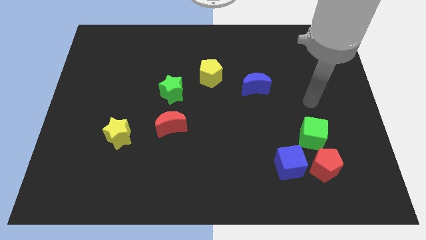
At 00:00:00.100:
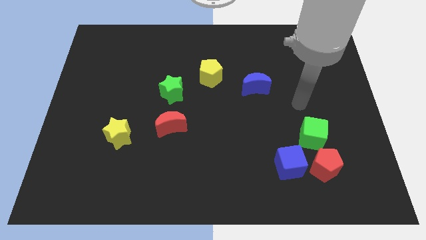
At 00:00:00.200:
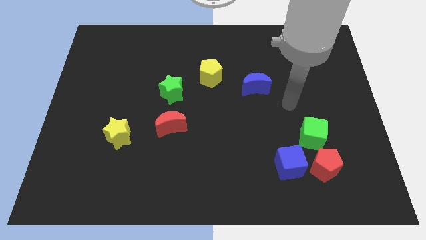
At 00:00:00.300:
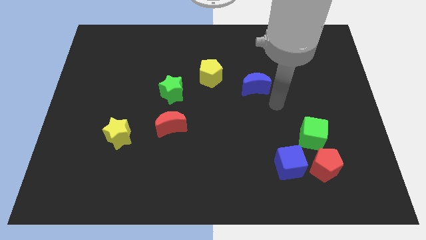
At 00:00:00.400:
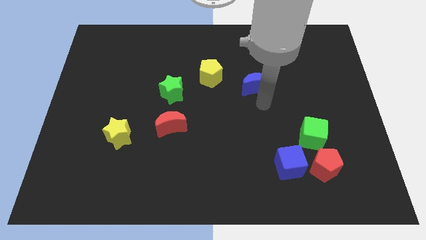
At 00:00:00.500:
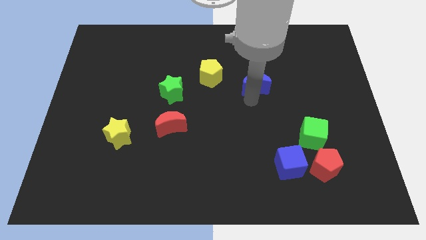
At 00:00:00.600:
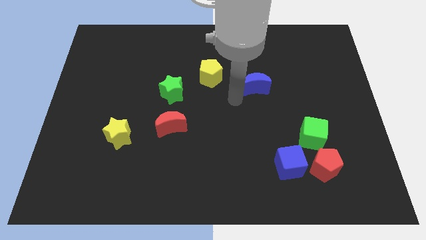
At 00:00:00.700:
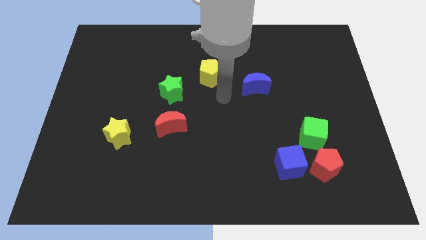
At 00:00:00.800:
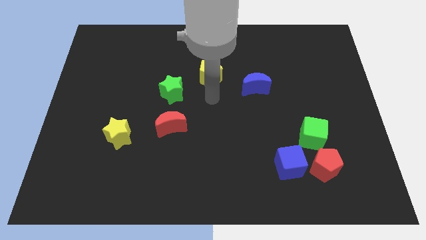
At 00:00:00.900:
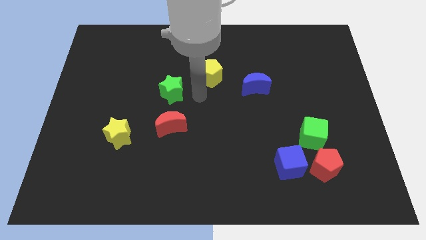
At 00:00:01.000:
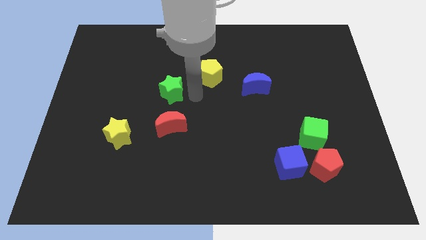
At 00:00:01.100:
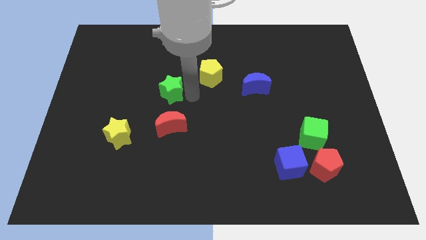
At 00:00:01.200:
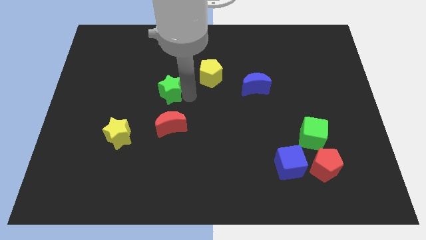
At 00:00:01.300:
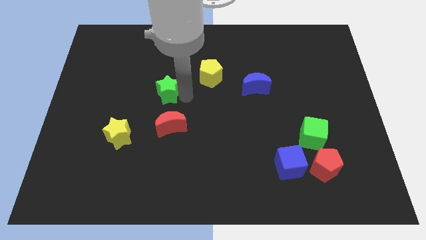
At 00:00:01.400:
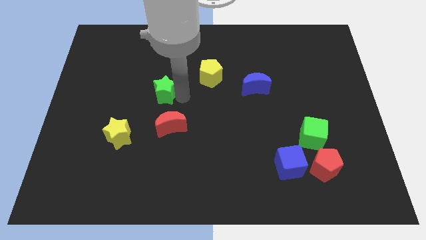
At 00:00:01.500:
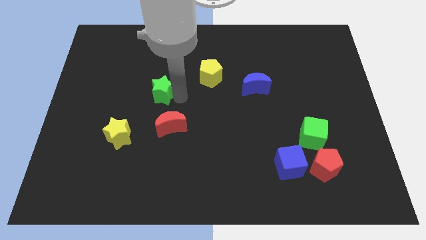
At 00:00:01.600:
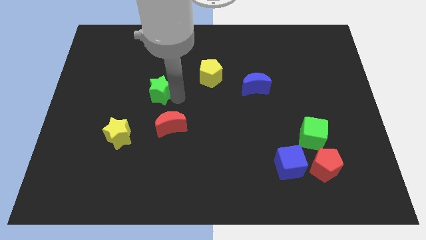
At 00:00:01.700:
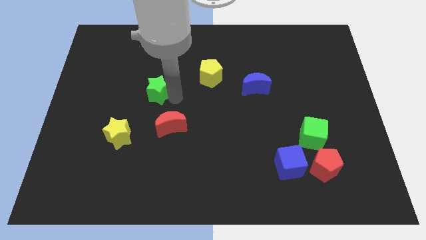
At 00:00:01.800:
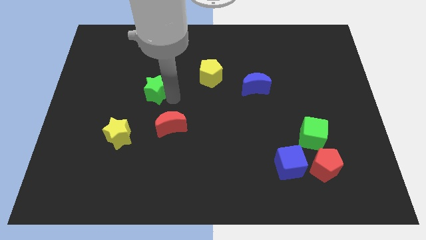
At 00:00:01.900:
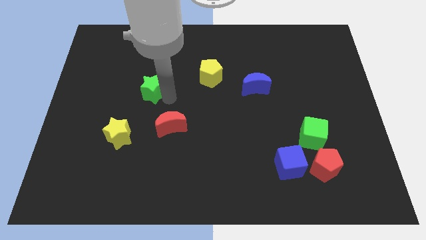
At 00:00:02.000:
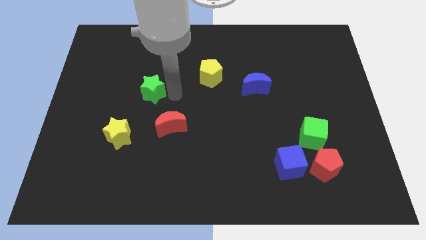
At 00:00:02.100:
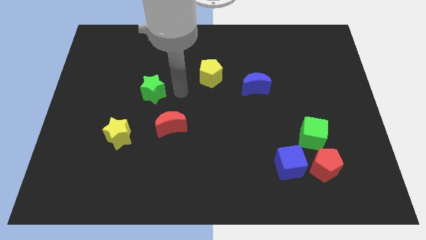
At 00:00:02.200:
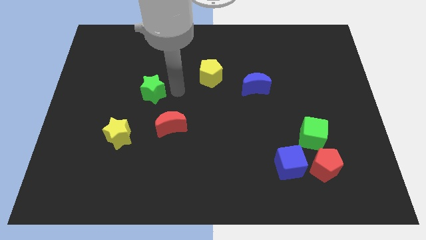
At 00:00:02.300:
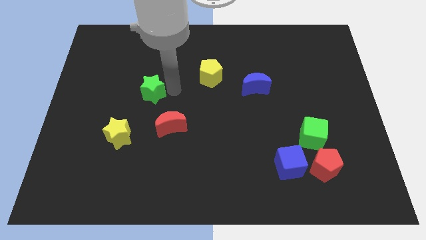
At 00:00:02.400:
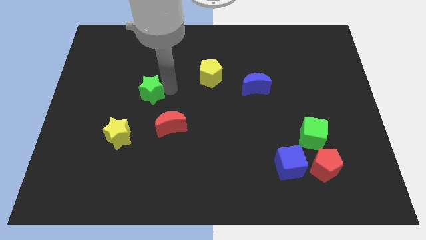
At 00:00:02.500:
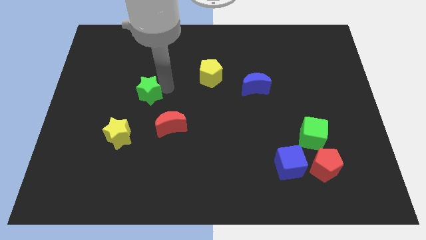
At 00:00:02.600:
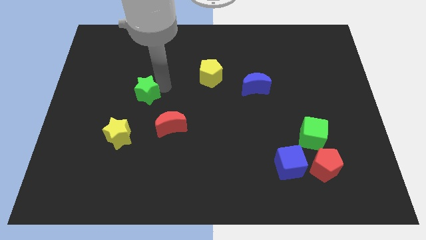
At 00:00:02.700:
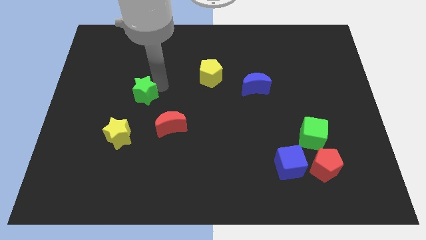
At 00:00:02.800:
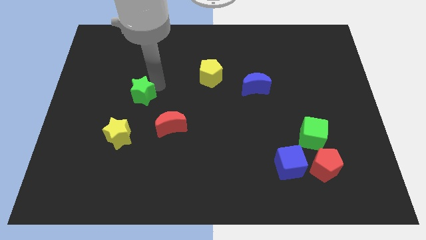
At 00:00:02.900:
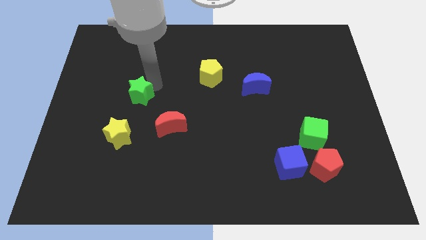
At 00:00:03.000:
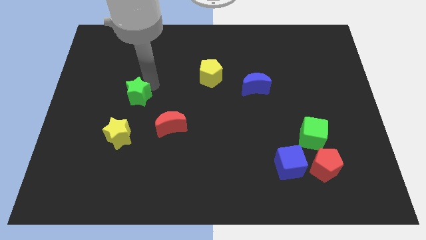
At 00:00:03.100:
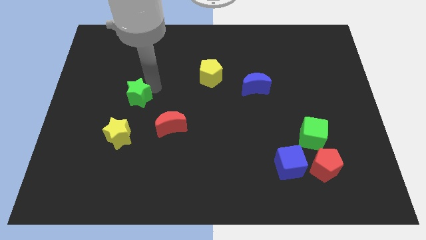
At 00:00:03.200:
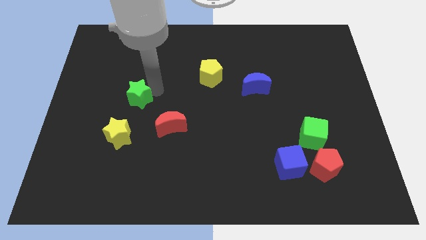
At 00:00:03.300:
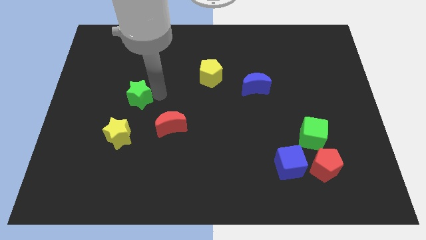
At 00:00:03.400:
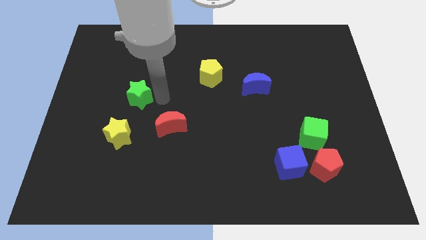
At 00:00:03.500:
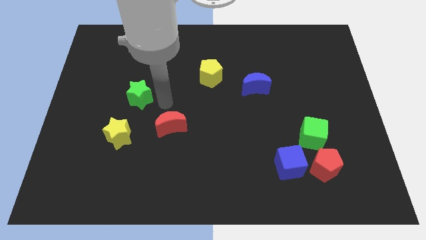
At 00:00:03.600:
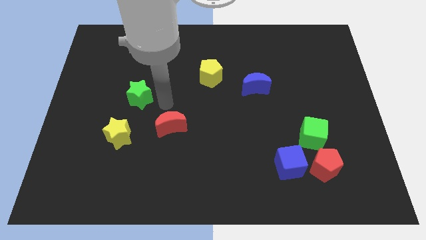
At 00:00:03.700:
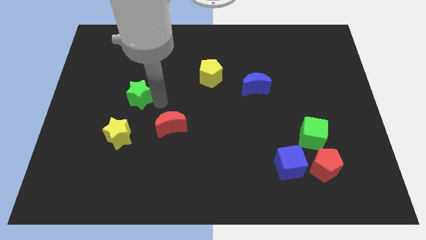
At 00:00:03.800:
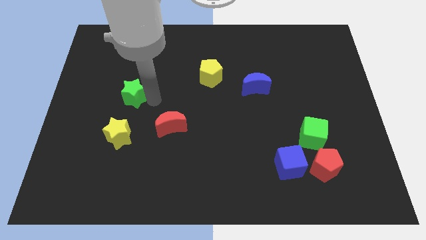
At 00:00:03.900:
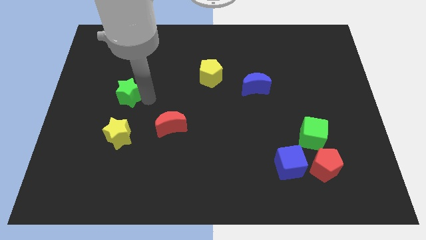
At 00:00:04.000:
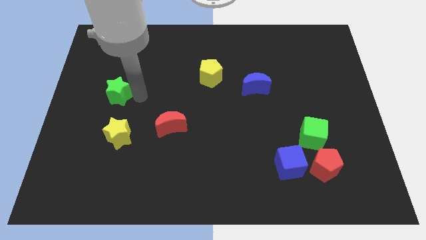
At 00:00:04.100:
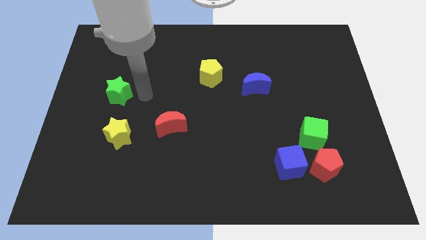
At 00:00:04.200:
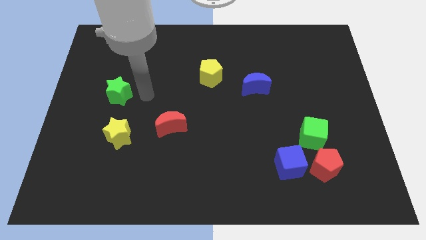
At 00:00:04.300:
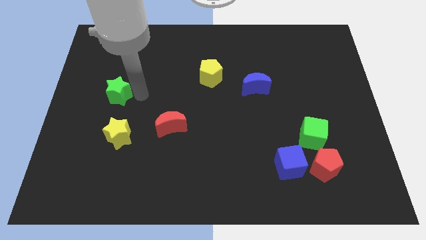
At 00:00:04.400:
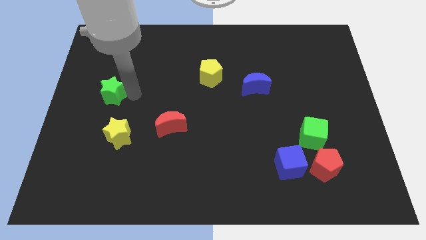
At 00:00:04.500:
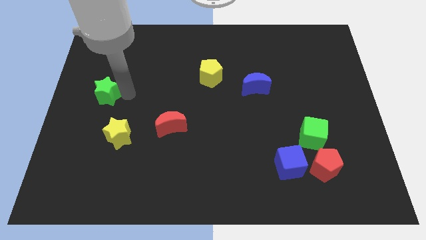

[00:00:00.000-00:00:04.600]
slide the green star to the left side of the board

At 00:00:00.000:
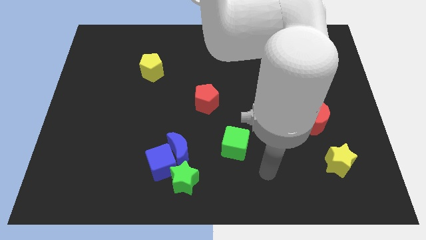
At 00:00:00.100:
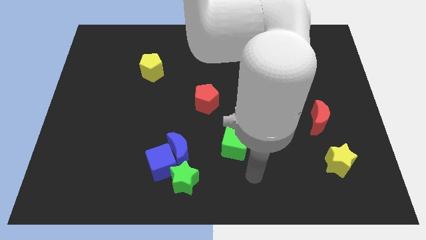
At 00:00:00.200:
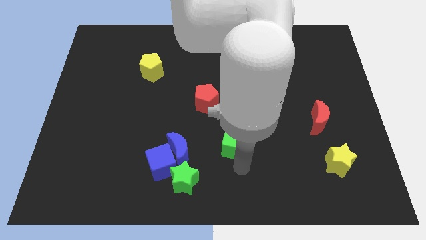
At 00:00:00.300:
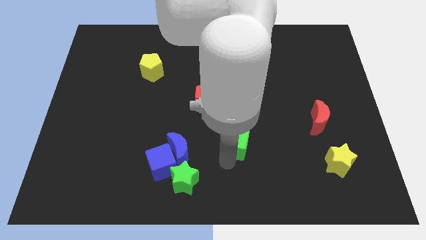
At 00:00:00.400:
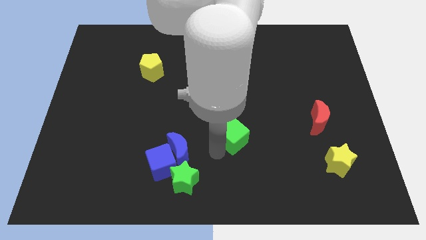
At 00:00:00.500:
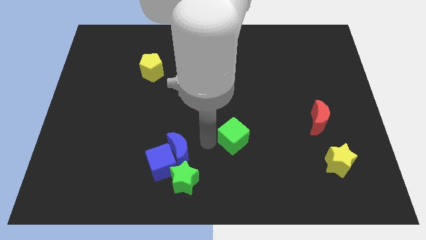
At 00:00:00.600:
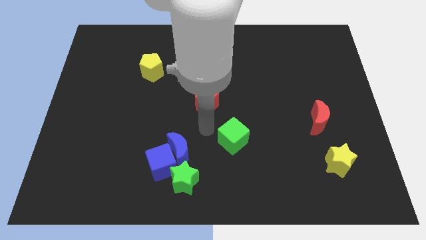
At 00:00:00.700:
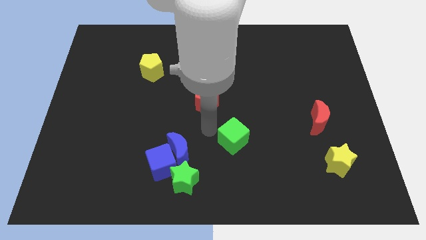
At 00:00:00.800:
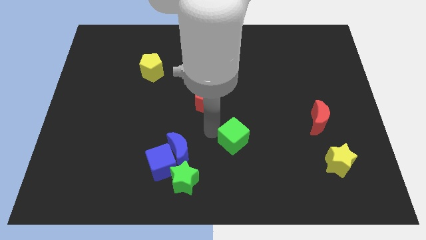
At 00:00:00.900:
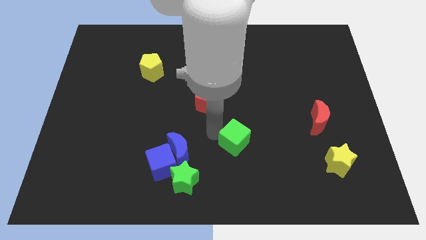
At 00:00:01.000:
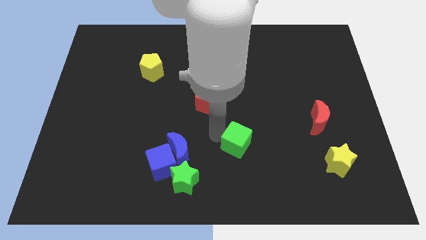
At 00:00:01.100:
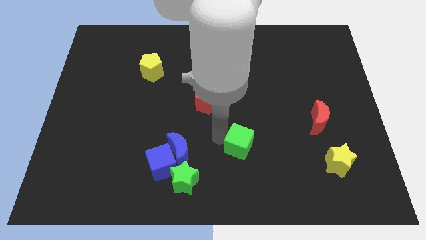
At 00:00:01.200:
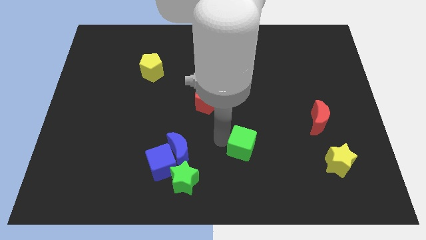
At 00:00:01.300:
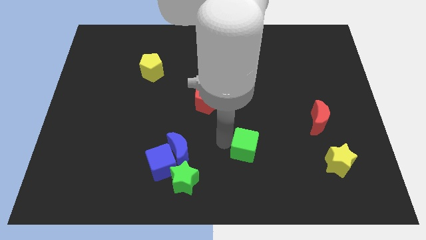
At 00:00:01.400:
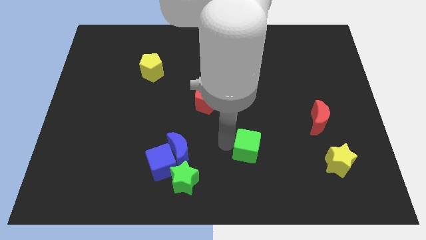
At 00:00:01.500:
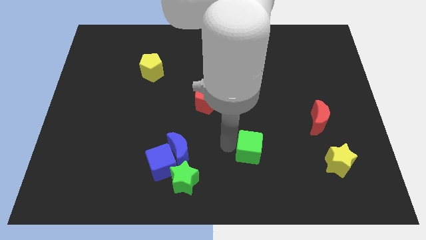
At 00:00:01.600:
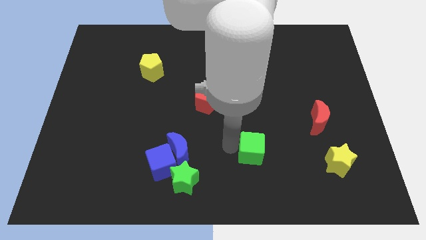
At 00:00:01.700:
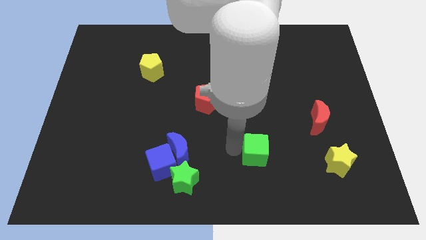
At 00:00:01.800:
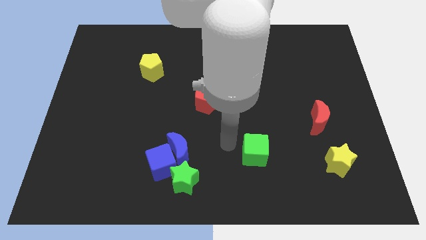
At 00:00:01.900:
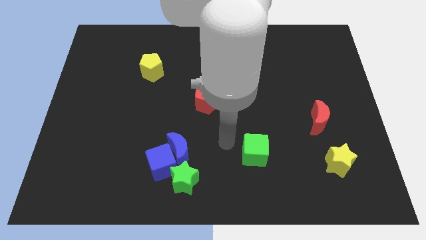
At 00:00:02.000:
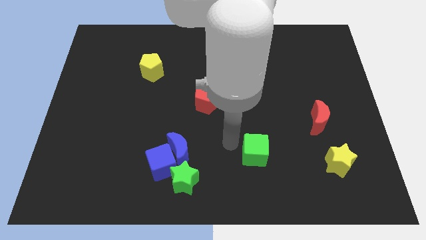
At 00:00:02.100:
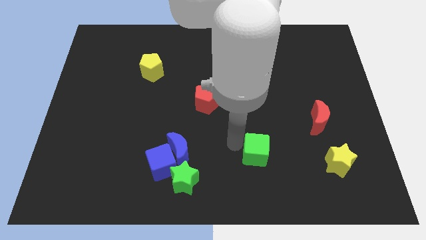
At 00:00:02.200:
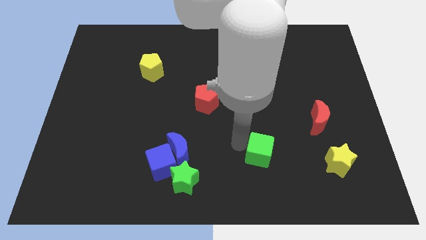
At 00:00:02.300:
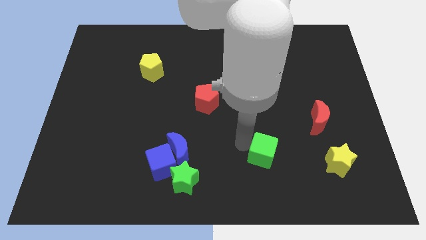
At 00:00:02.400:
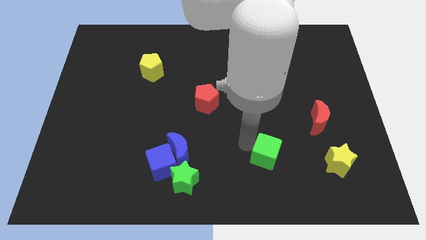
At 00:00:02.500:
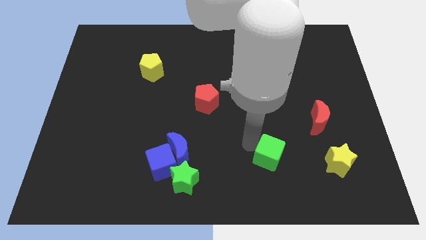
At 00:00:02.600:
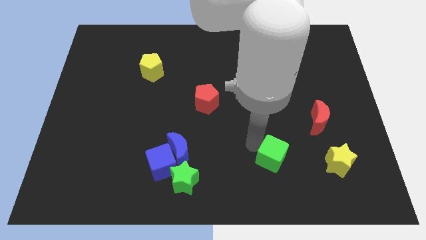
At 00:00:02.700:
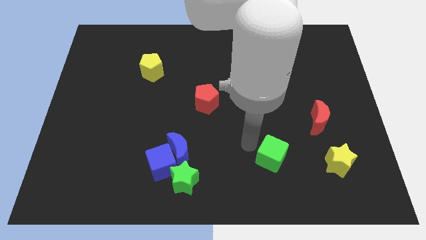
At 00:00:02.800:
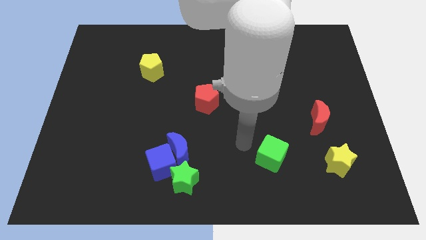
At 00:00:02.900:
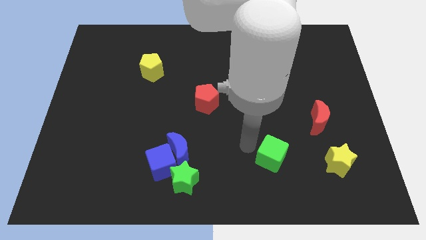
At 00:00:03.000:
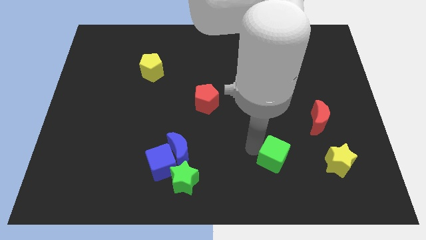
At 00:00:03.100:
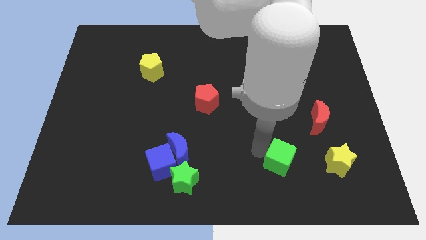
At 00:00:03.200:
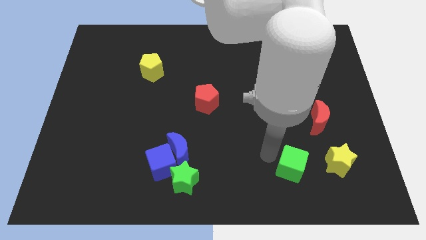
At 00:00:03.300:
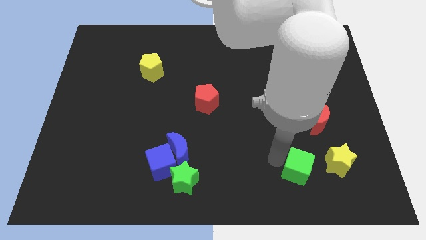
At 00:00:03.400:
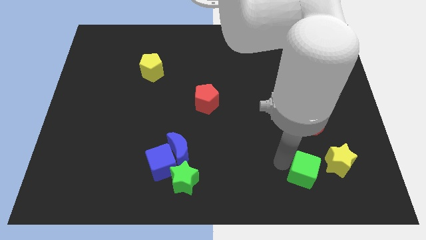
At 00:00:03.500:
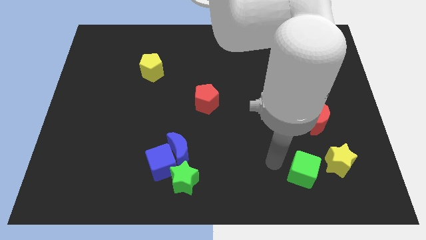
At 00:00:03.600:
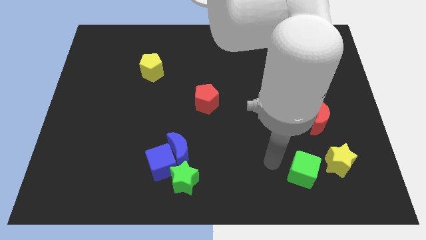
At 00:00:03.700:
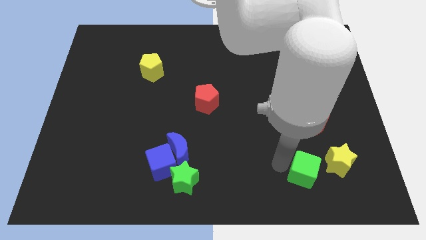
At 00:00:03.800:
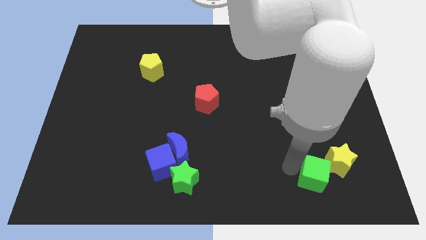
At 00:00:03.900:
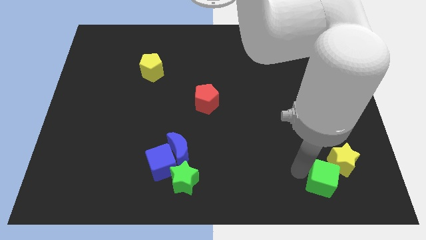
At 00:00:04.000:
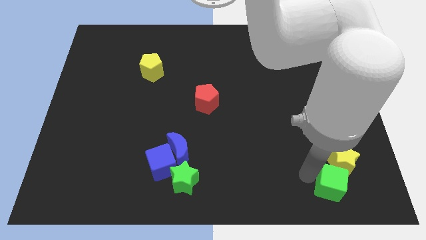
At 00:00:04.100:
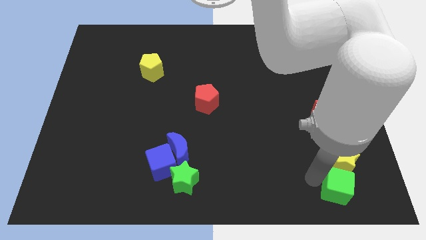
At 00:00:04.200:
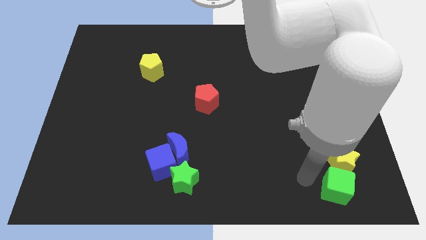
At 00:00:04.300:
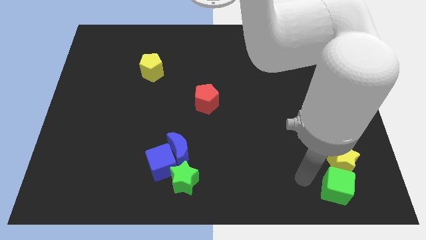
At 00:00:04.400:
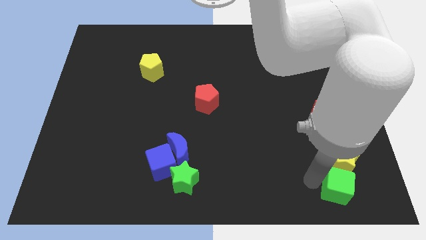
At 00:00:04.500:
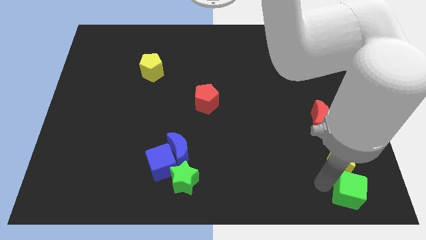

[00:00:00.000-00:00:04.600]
push the green cube to the bottom right of the board
